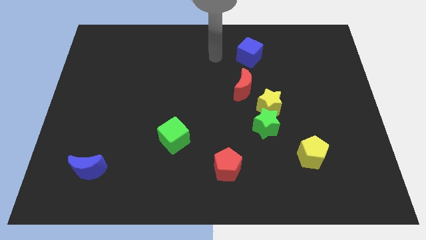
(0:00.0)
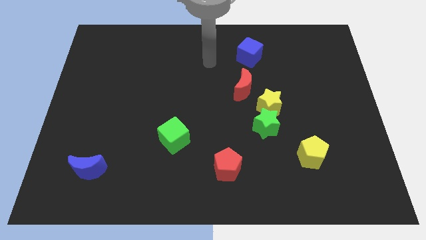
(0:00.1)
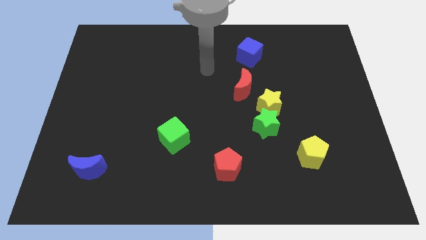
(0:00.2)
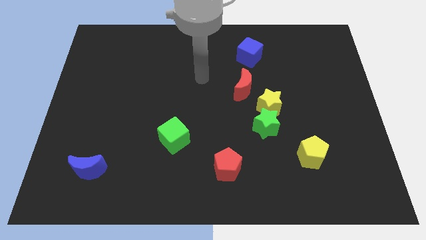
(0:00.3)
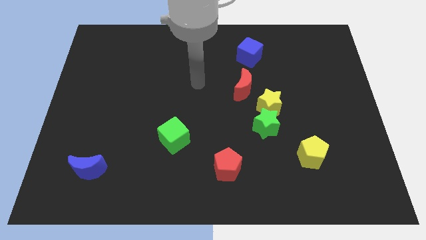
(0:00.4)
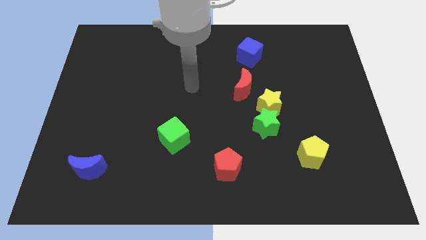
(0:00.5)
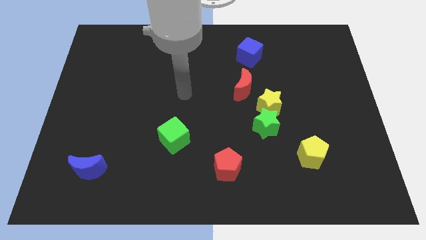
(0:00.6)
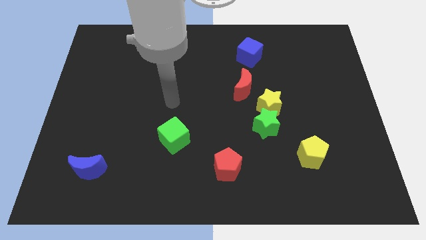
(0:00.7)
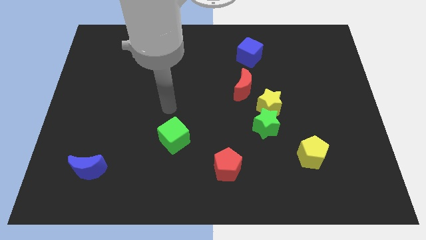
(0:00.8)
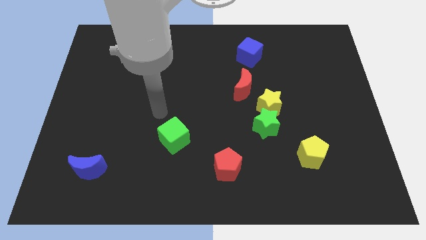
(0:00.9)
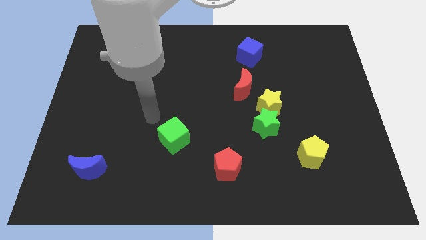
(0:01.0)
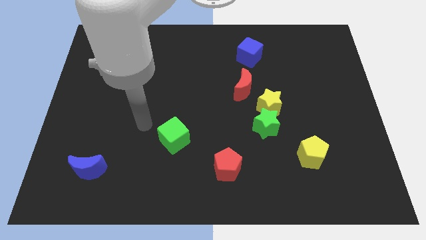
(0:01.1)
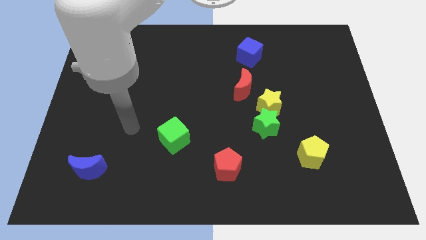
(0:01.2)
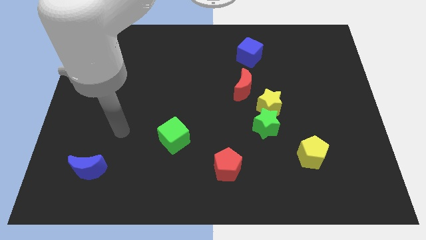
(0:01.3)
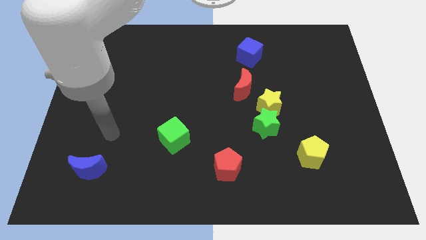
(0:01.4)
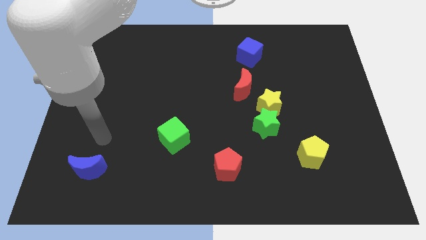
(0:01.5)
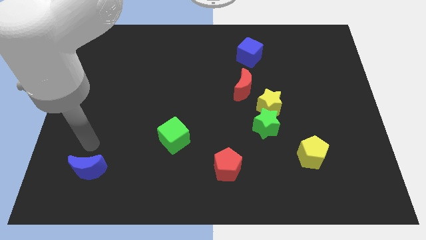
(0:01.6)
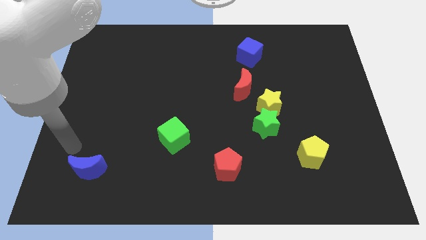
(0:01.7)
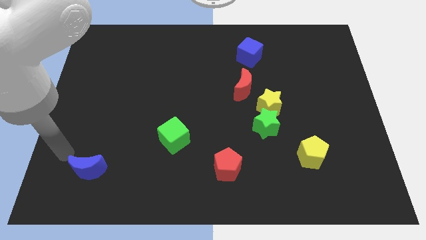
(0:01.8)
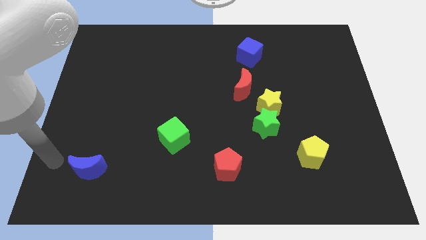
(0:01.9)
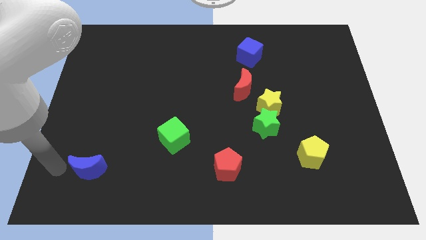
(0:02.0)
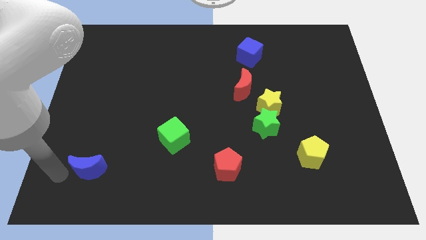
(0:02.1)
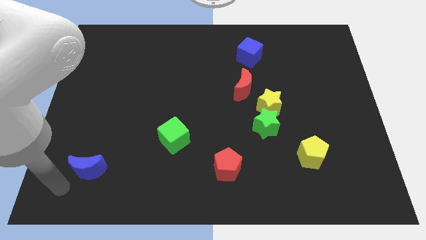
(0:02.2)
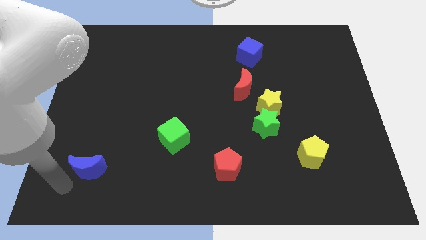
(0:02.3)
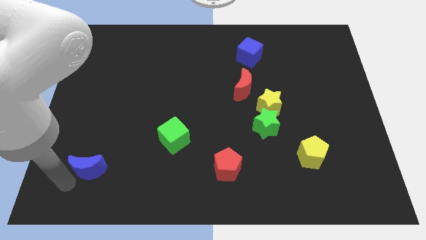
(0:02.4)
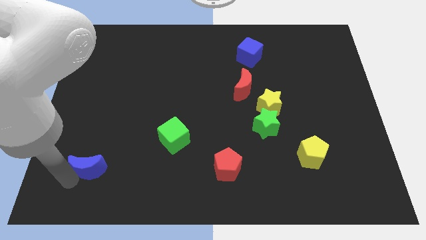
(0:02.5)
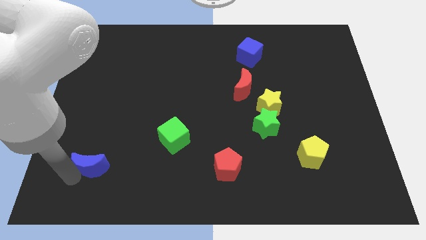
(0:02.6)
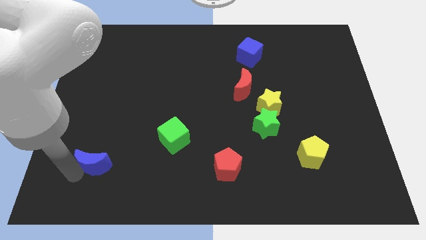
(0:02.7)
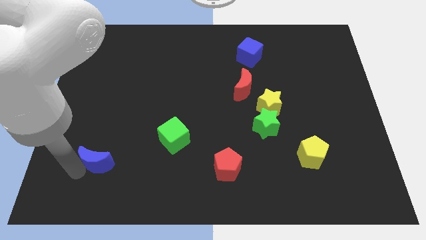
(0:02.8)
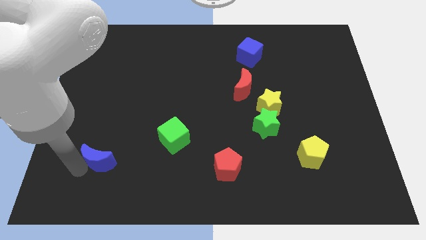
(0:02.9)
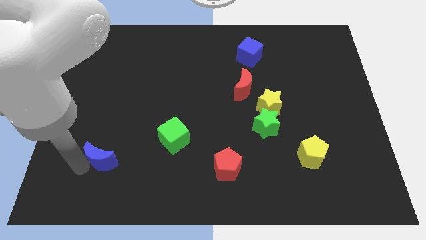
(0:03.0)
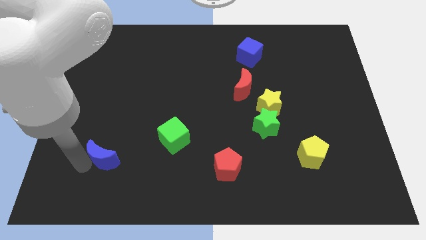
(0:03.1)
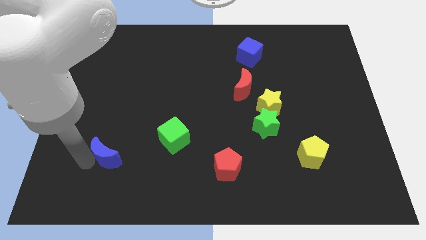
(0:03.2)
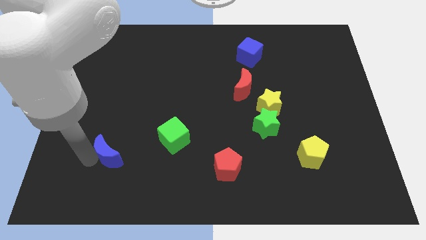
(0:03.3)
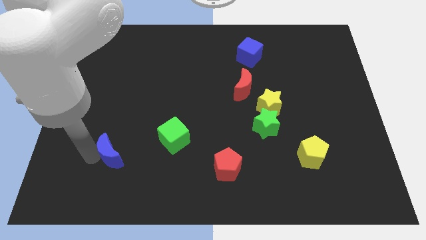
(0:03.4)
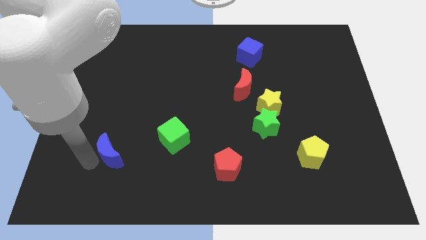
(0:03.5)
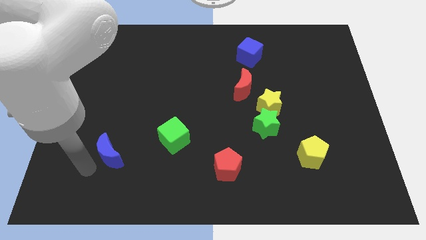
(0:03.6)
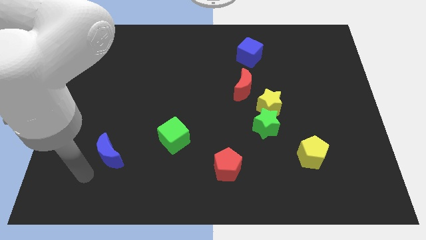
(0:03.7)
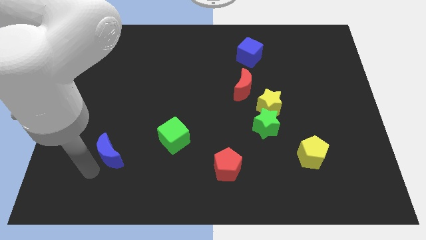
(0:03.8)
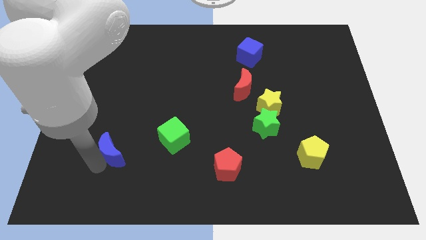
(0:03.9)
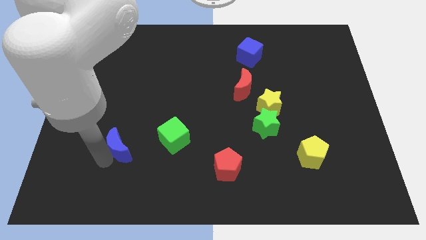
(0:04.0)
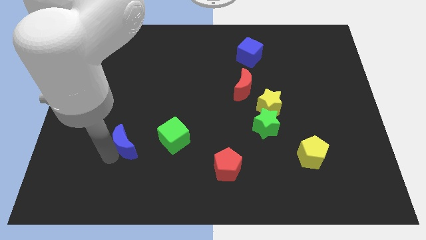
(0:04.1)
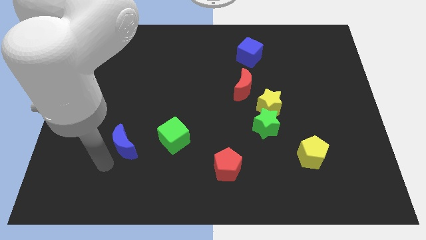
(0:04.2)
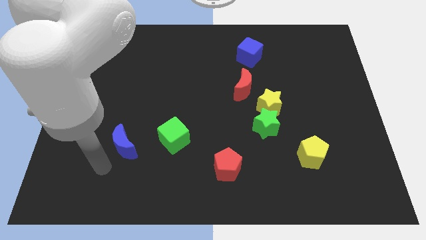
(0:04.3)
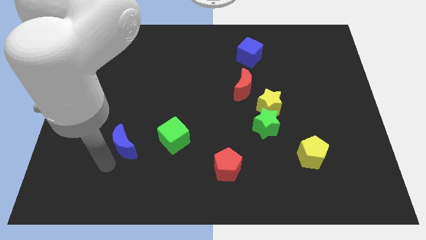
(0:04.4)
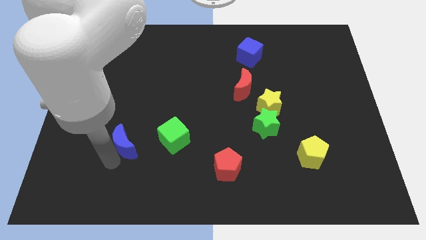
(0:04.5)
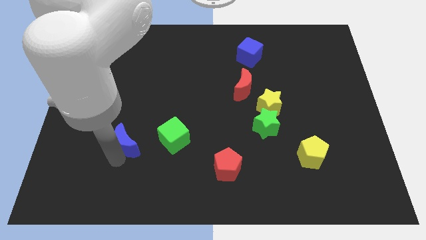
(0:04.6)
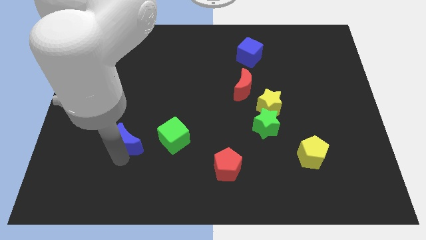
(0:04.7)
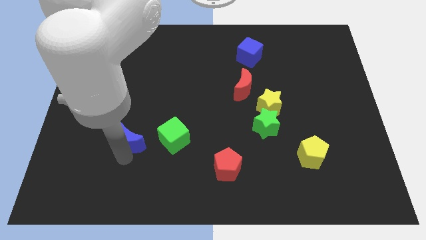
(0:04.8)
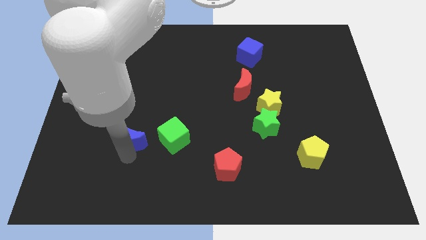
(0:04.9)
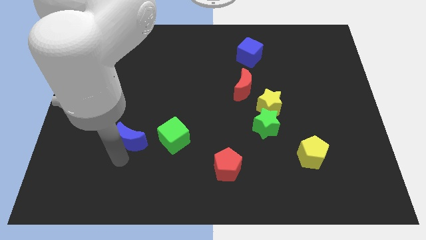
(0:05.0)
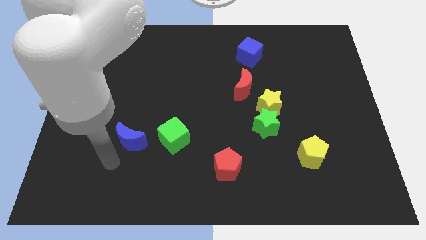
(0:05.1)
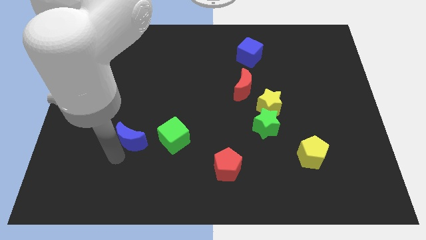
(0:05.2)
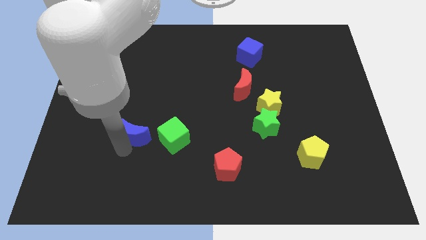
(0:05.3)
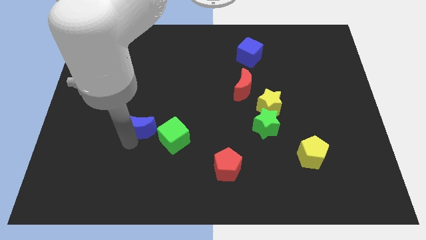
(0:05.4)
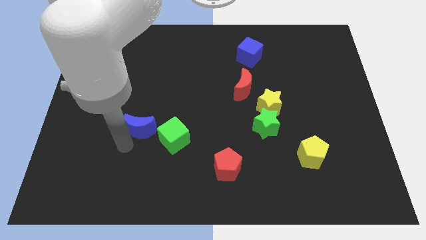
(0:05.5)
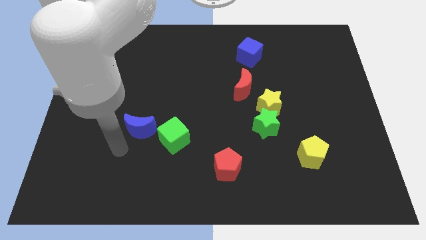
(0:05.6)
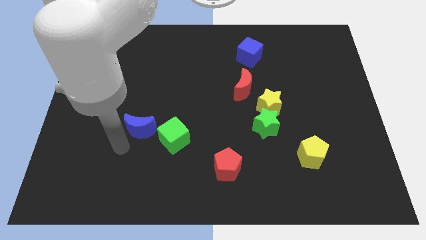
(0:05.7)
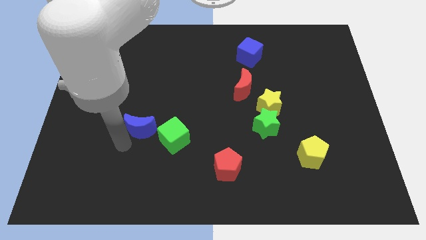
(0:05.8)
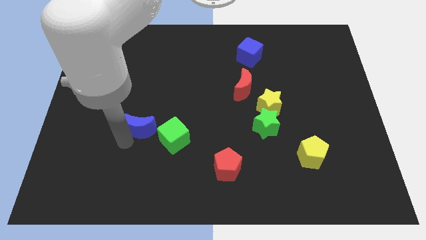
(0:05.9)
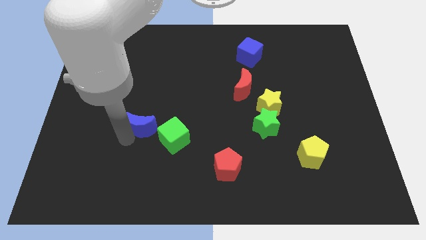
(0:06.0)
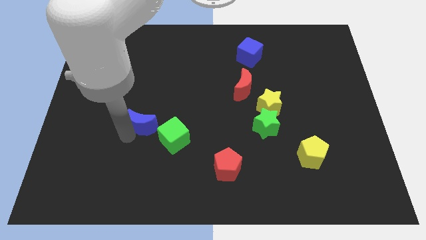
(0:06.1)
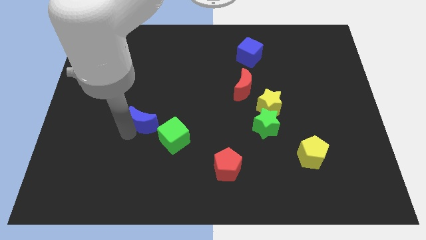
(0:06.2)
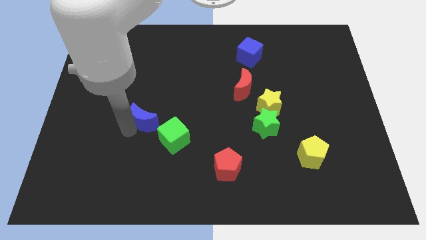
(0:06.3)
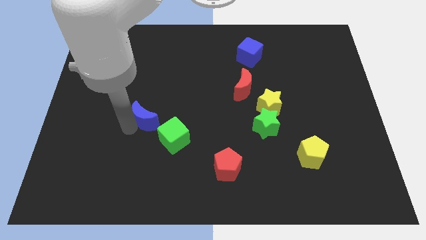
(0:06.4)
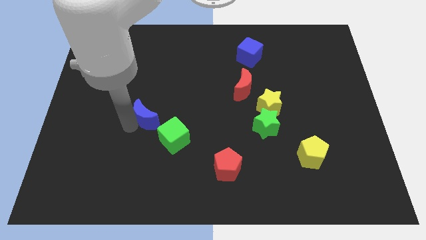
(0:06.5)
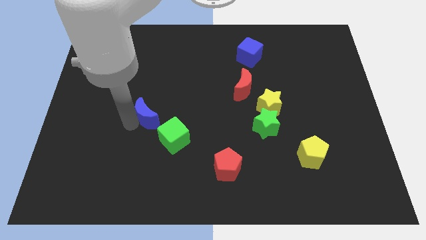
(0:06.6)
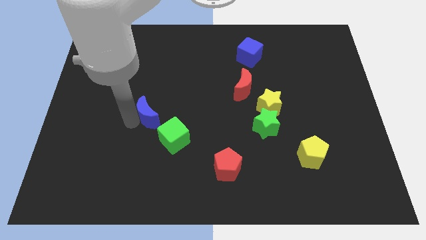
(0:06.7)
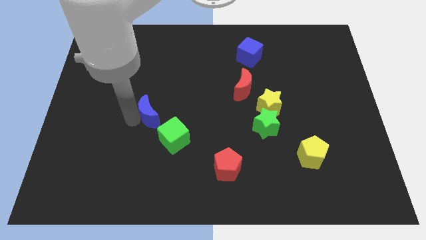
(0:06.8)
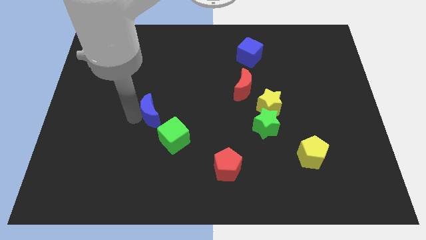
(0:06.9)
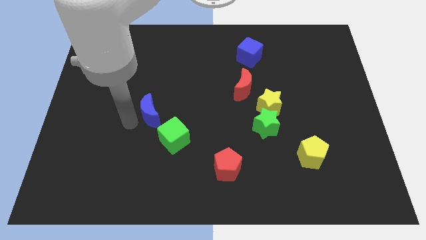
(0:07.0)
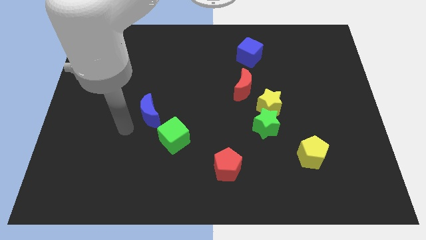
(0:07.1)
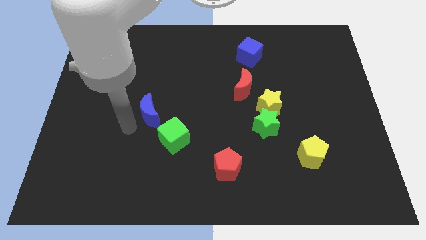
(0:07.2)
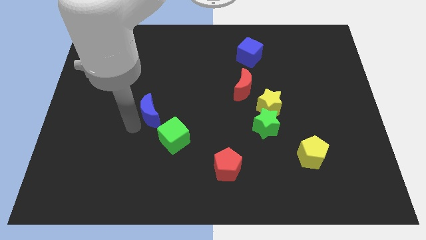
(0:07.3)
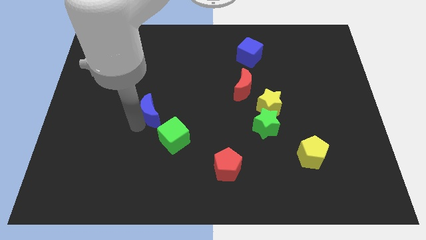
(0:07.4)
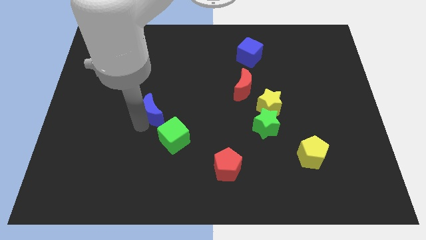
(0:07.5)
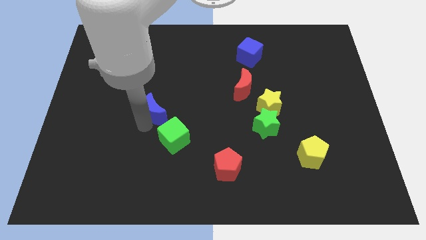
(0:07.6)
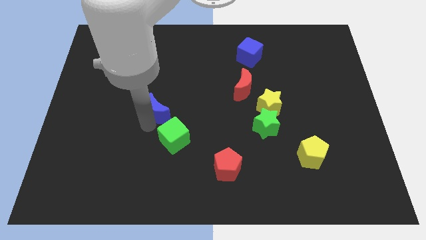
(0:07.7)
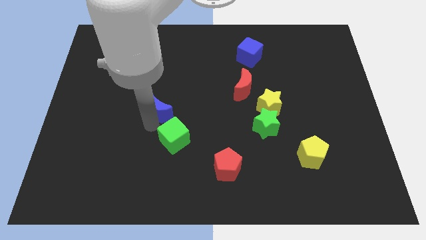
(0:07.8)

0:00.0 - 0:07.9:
slide the blue moon upwards and right
